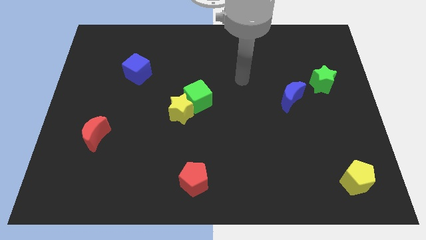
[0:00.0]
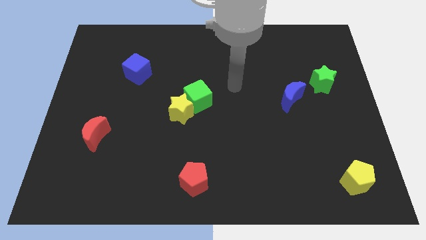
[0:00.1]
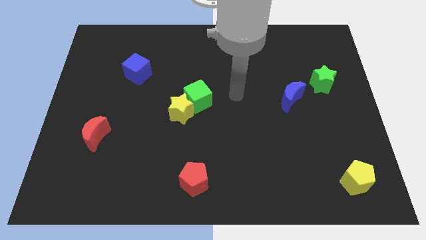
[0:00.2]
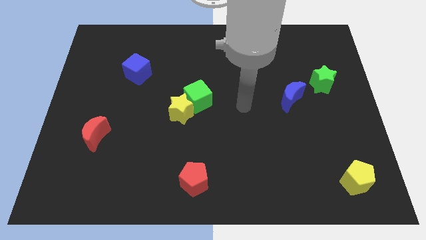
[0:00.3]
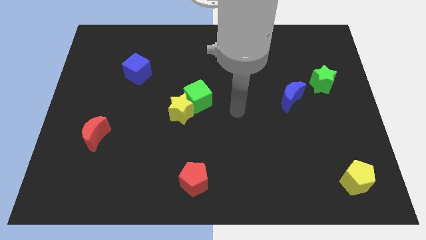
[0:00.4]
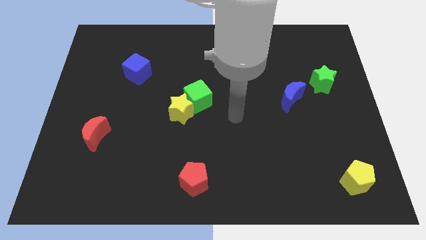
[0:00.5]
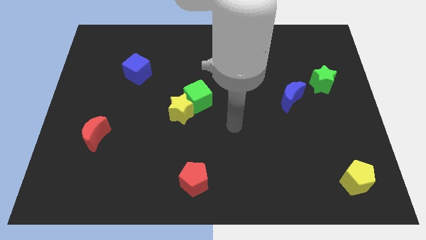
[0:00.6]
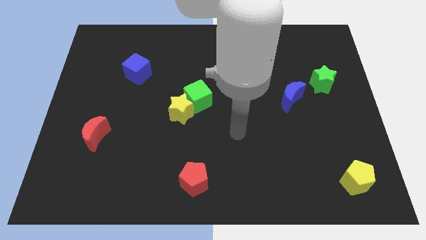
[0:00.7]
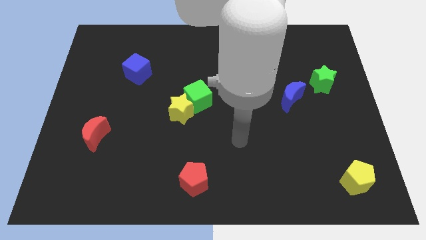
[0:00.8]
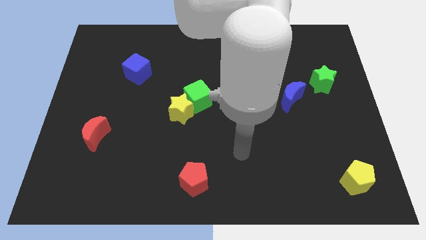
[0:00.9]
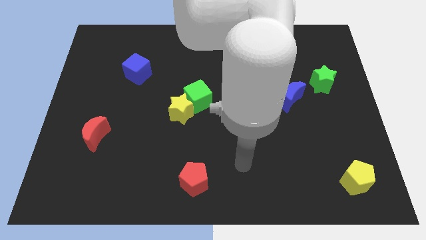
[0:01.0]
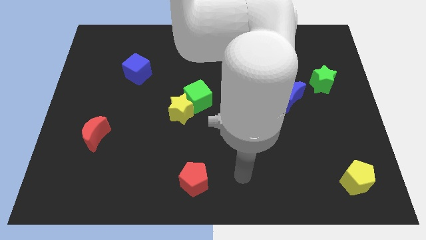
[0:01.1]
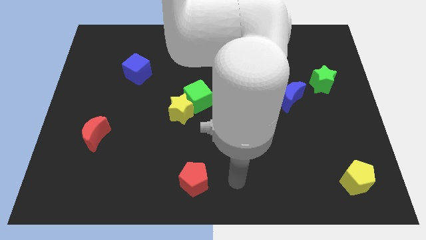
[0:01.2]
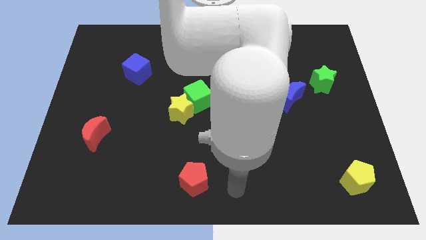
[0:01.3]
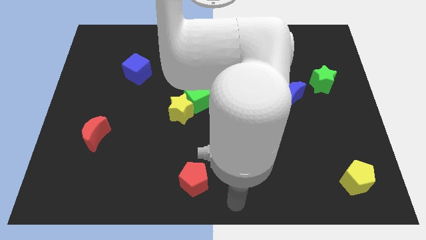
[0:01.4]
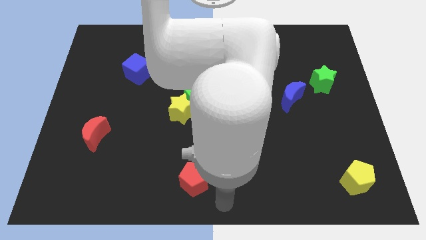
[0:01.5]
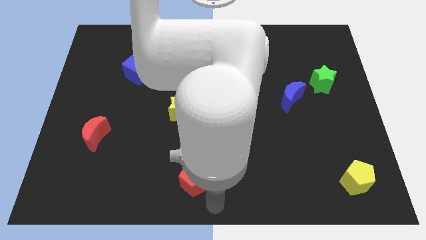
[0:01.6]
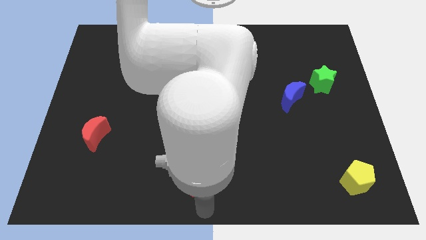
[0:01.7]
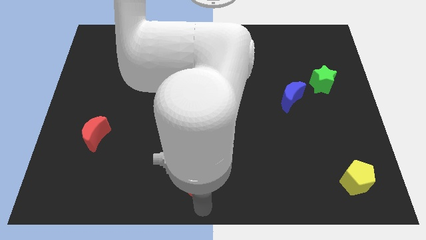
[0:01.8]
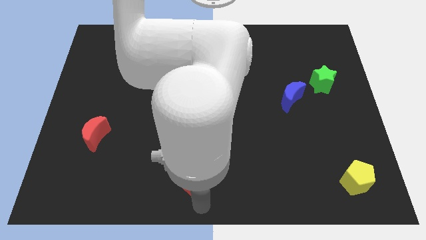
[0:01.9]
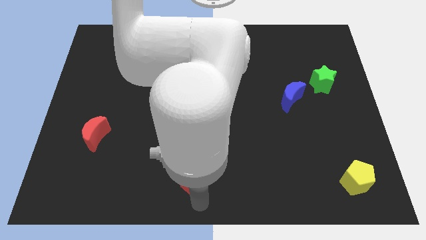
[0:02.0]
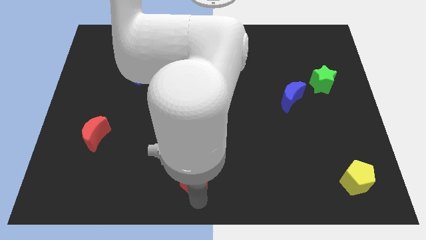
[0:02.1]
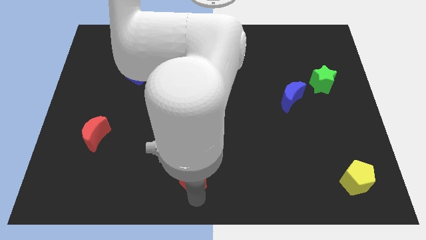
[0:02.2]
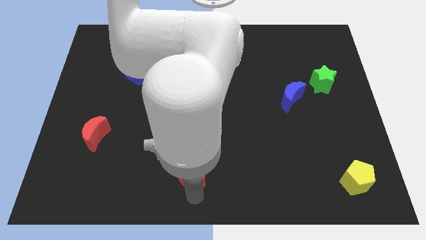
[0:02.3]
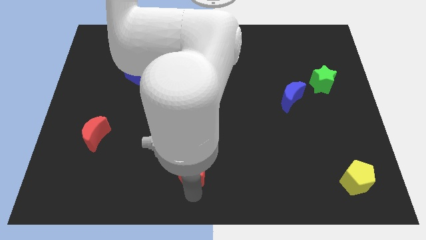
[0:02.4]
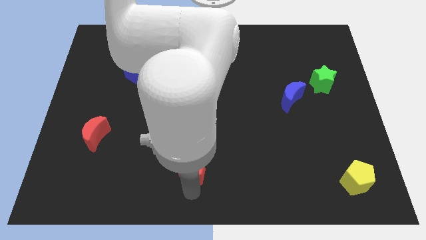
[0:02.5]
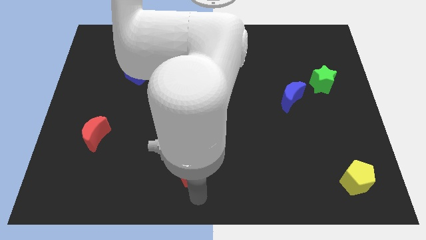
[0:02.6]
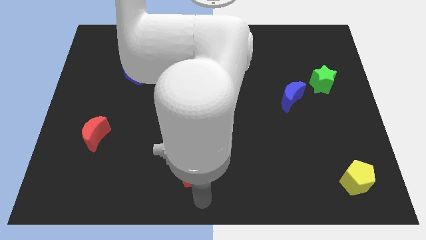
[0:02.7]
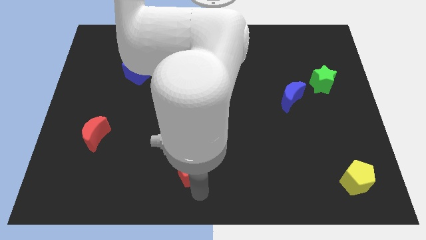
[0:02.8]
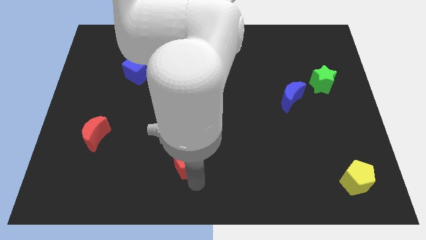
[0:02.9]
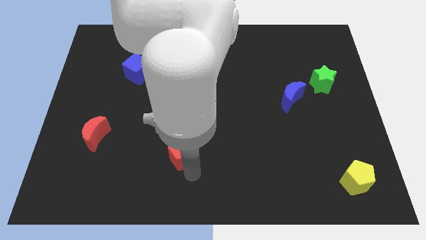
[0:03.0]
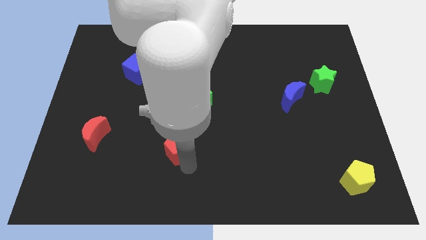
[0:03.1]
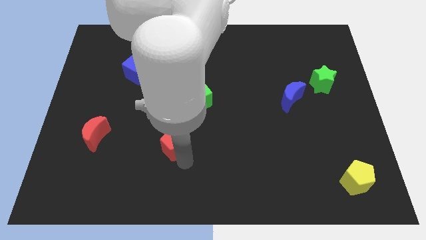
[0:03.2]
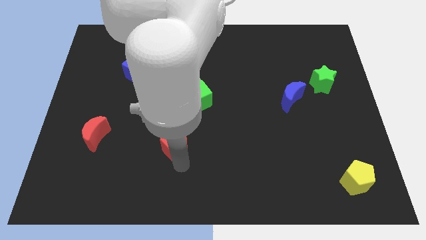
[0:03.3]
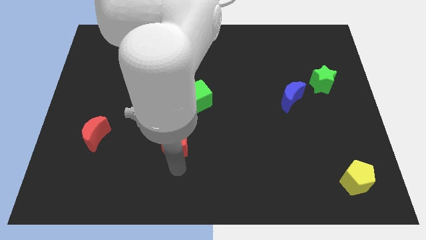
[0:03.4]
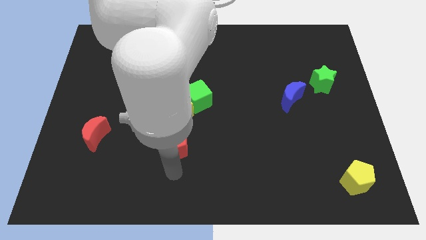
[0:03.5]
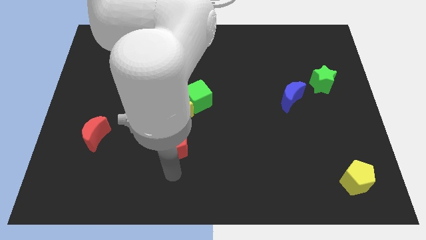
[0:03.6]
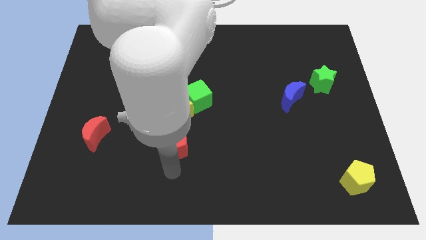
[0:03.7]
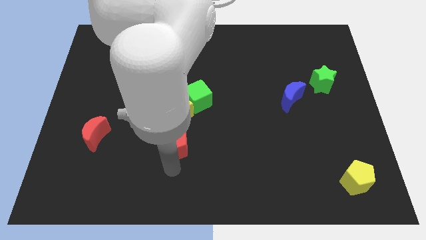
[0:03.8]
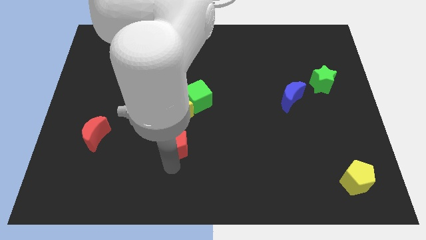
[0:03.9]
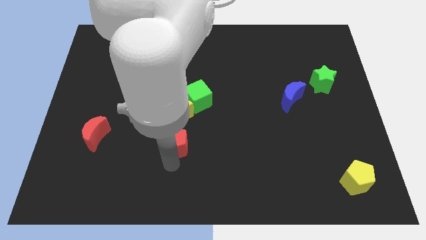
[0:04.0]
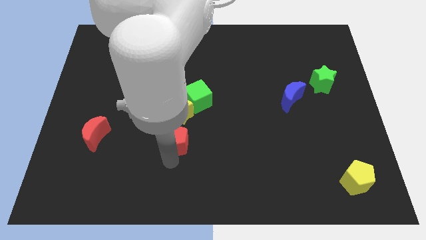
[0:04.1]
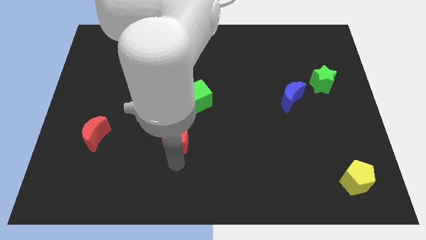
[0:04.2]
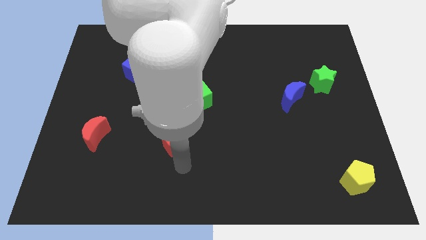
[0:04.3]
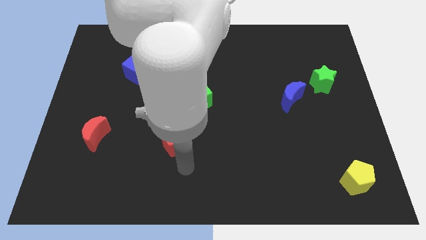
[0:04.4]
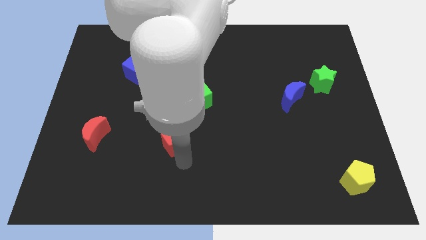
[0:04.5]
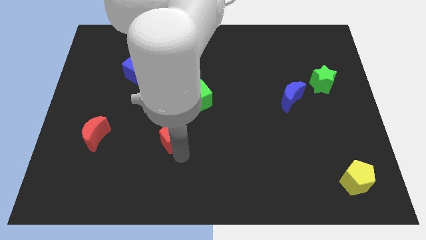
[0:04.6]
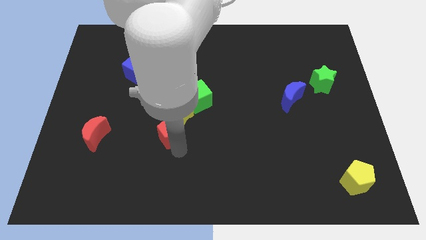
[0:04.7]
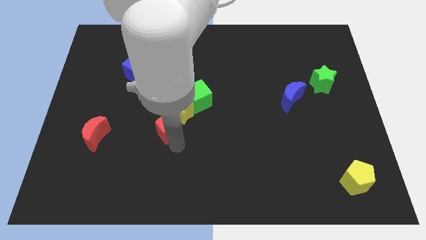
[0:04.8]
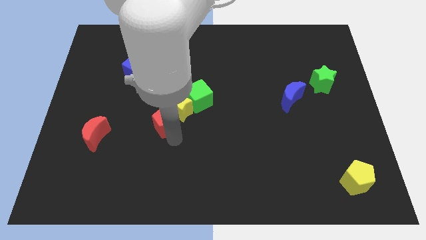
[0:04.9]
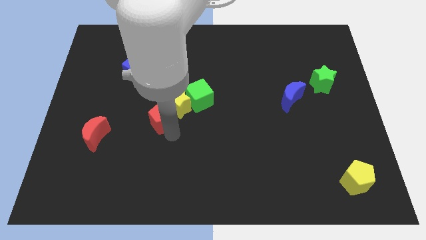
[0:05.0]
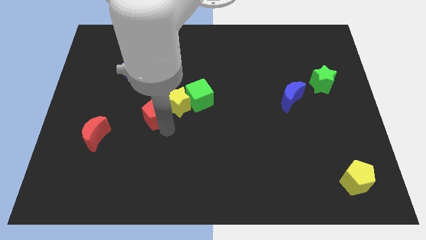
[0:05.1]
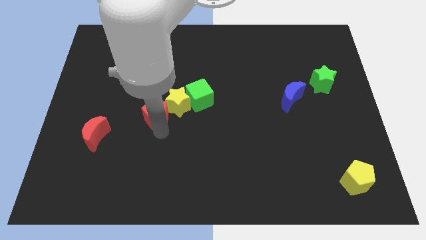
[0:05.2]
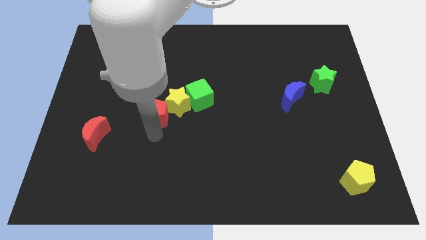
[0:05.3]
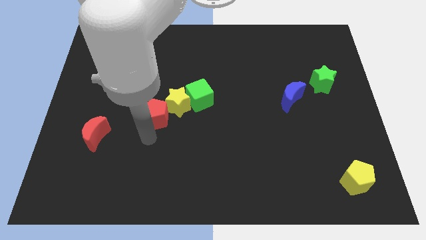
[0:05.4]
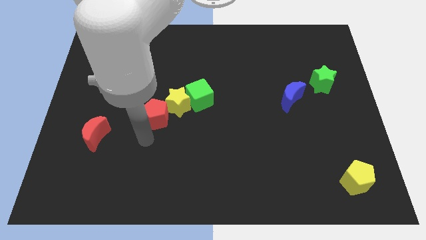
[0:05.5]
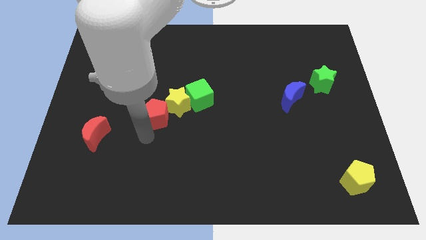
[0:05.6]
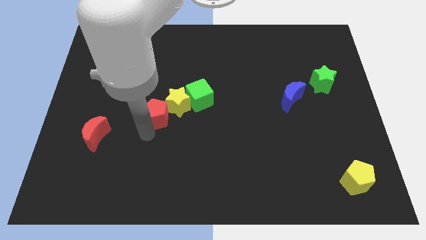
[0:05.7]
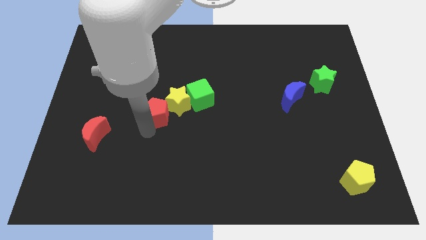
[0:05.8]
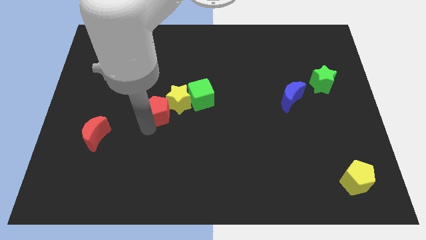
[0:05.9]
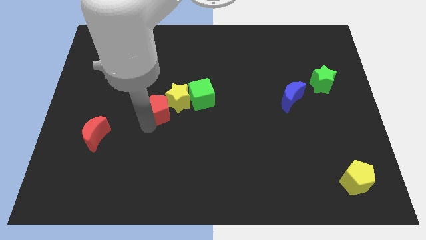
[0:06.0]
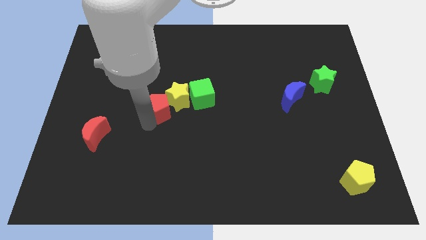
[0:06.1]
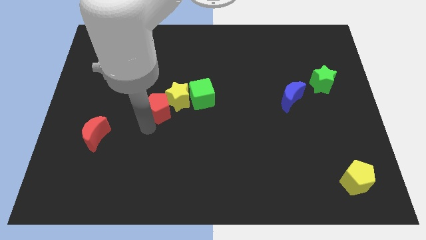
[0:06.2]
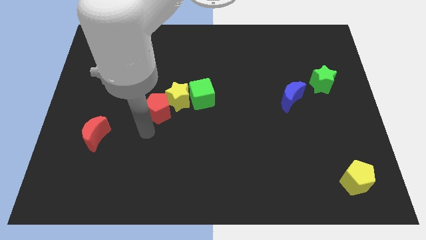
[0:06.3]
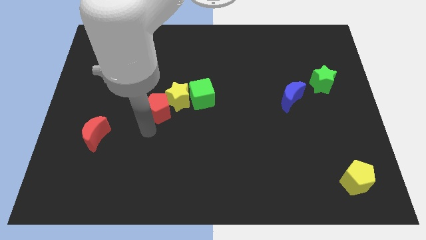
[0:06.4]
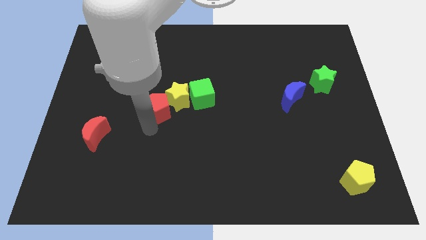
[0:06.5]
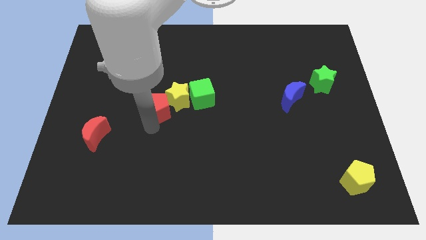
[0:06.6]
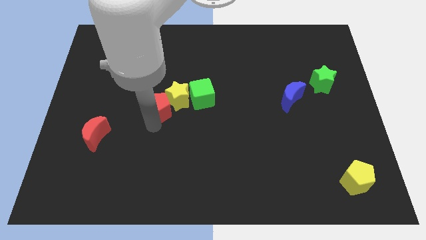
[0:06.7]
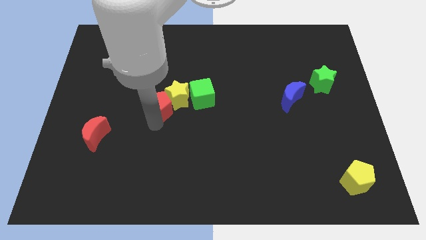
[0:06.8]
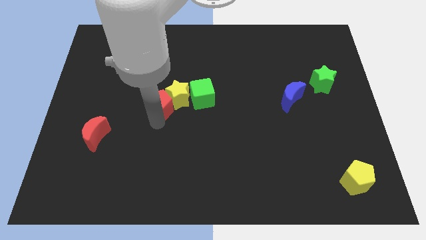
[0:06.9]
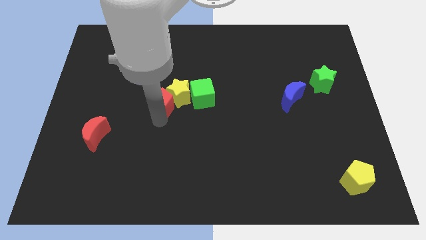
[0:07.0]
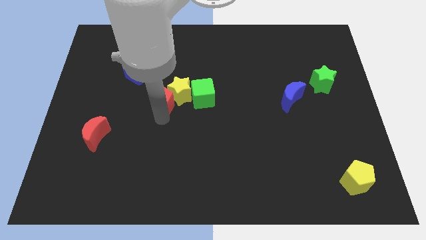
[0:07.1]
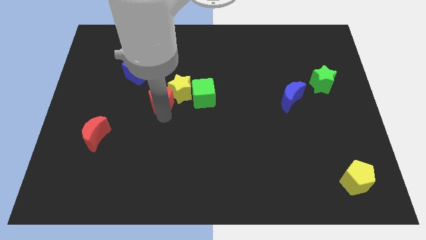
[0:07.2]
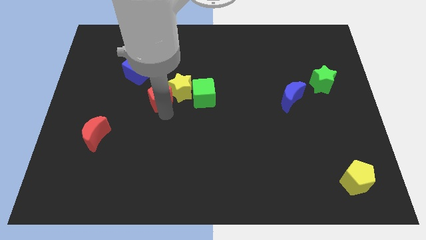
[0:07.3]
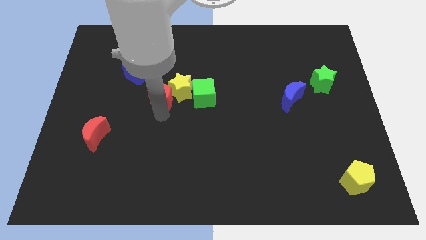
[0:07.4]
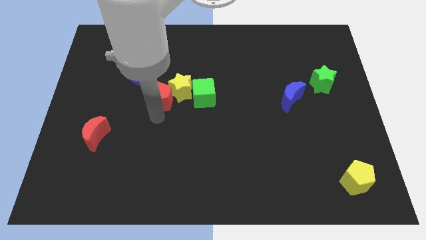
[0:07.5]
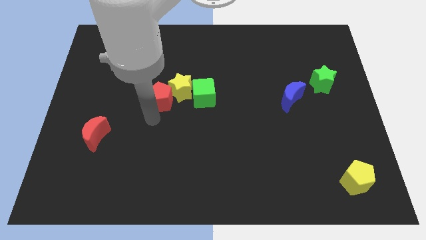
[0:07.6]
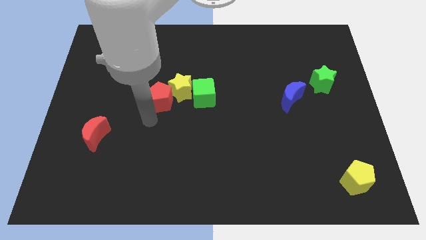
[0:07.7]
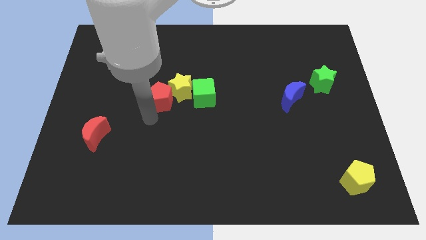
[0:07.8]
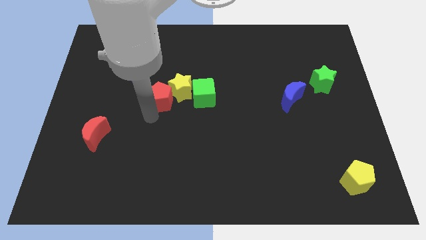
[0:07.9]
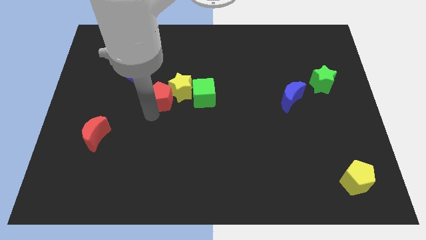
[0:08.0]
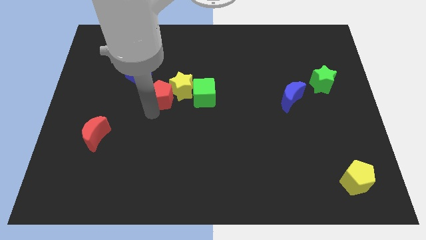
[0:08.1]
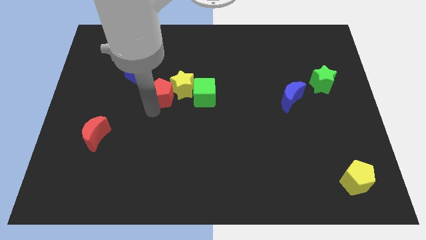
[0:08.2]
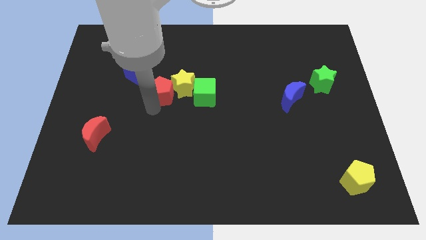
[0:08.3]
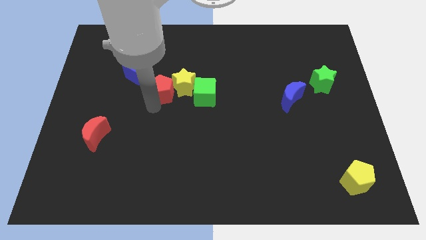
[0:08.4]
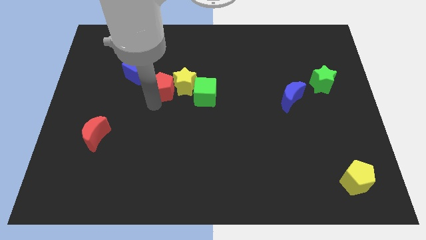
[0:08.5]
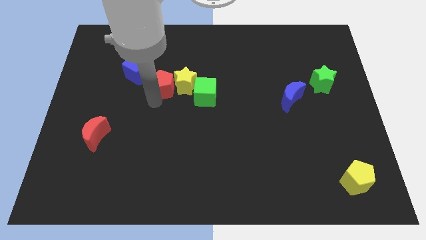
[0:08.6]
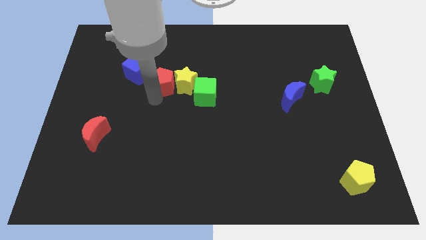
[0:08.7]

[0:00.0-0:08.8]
slide the red pentagon to the right of the blue cube
